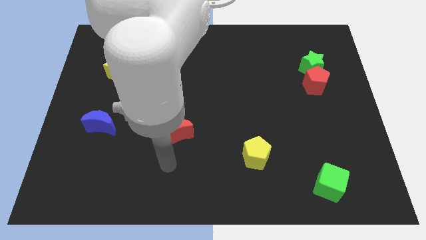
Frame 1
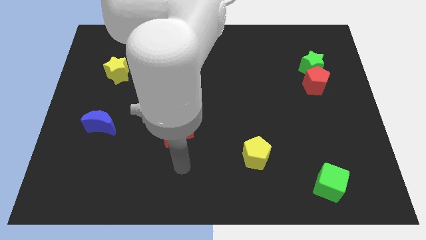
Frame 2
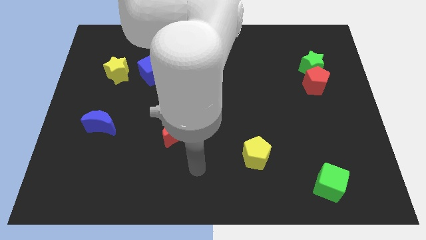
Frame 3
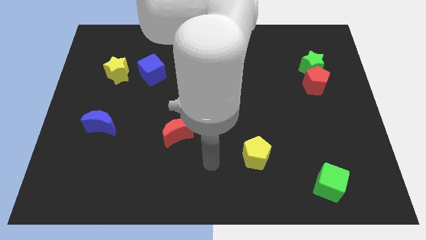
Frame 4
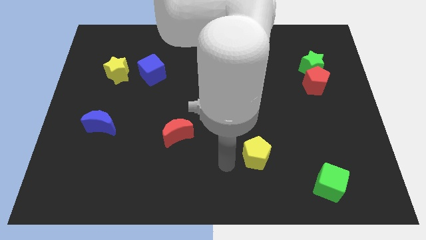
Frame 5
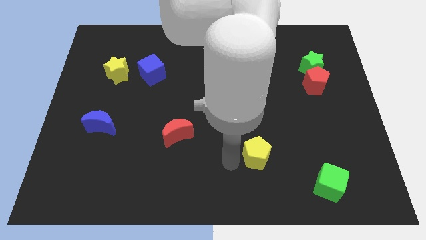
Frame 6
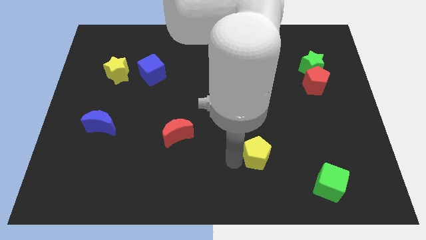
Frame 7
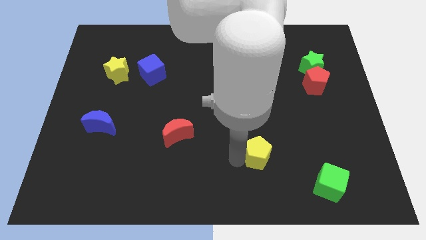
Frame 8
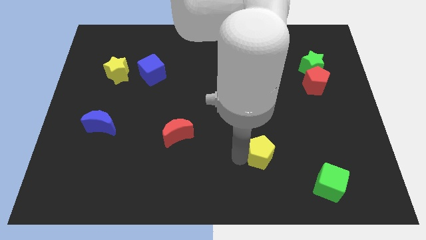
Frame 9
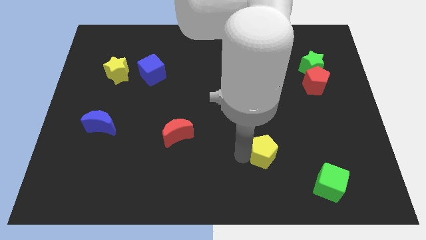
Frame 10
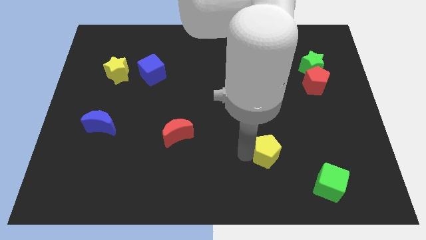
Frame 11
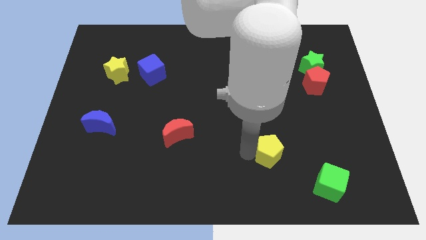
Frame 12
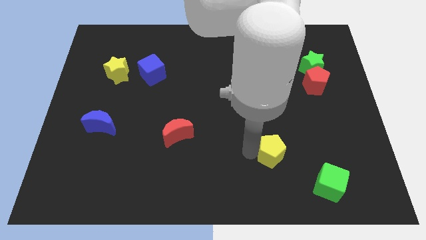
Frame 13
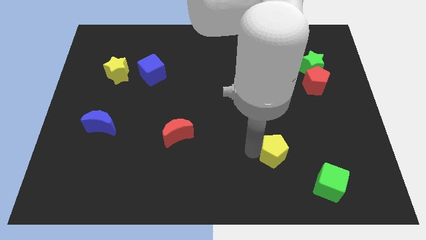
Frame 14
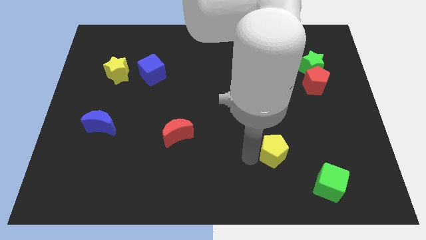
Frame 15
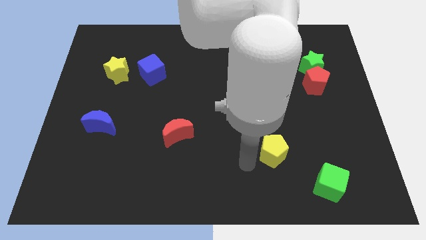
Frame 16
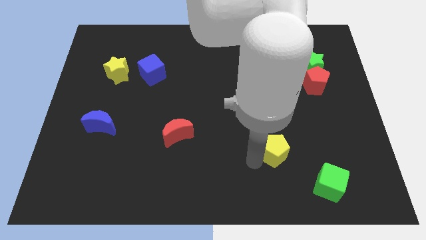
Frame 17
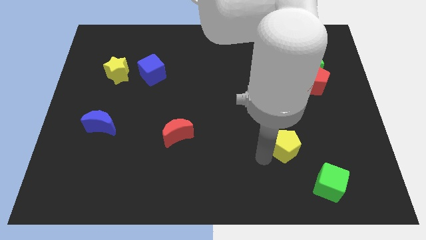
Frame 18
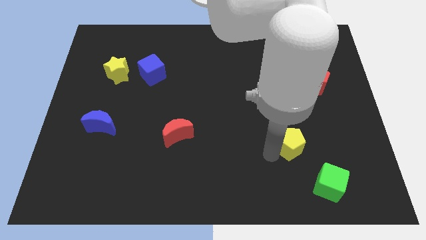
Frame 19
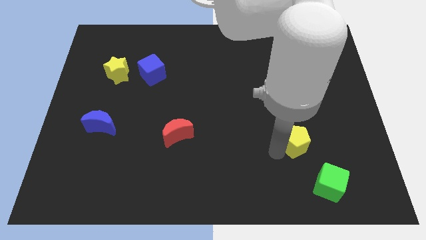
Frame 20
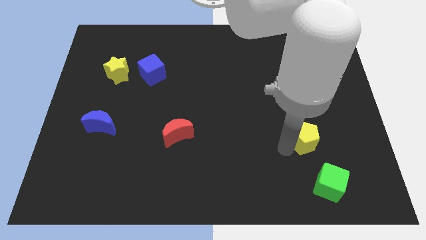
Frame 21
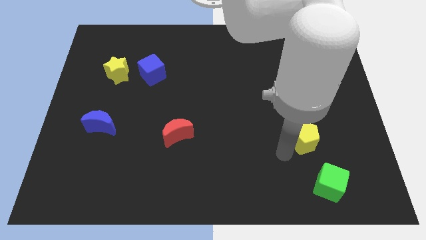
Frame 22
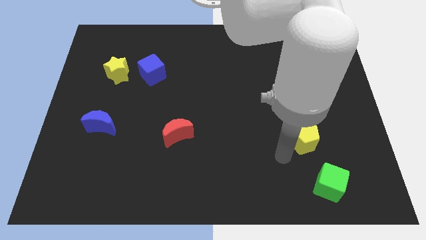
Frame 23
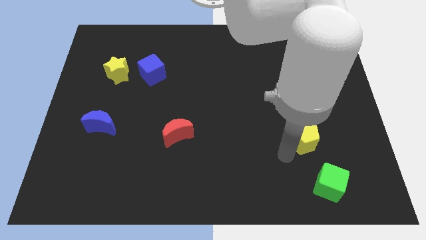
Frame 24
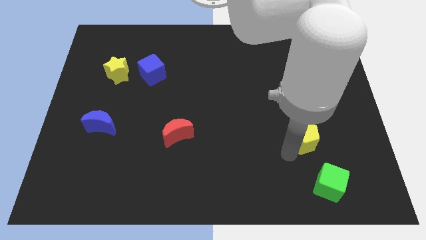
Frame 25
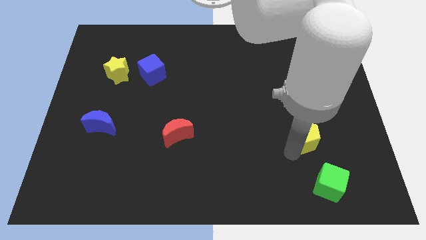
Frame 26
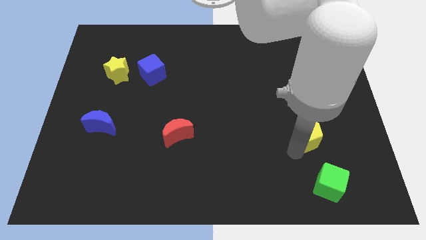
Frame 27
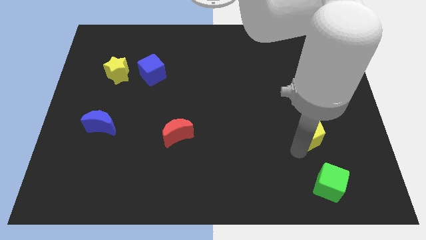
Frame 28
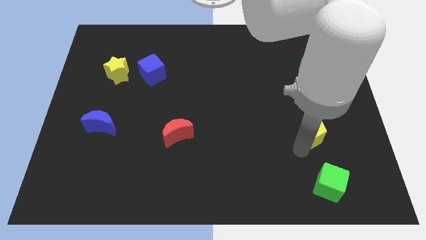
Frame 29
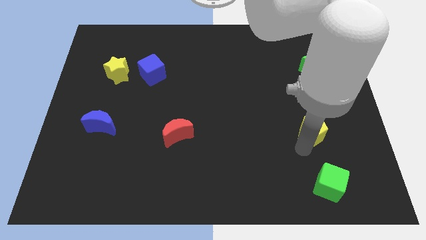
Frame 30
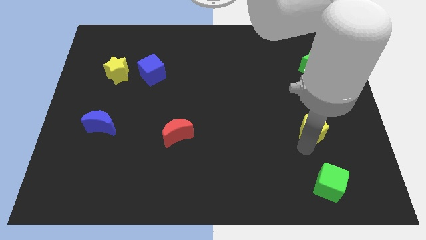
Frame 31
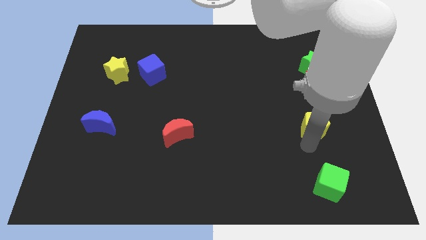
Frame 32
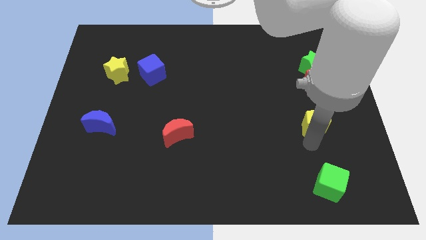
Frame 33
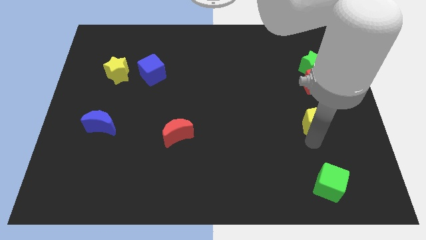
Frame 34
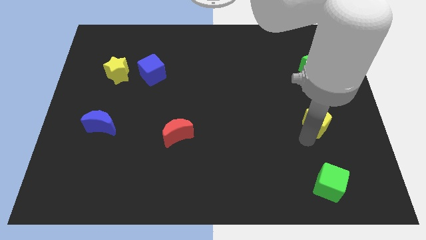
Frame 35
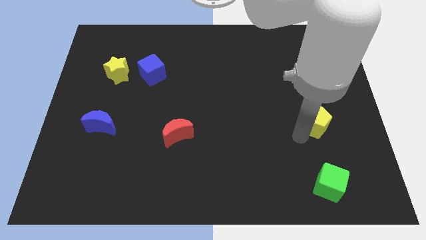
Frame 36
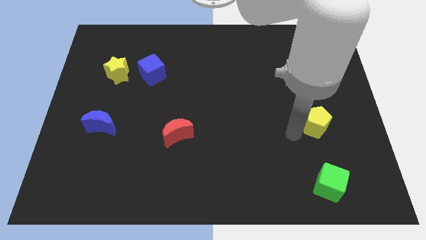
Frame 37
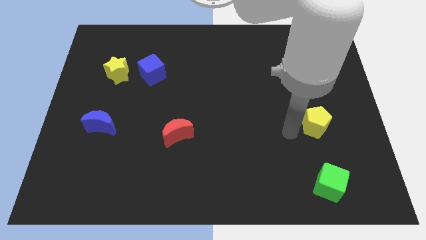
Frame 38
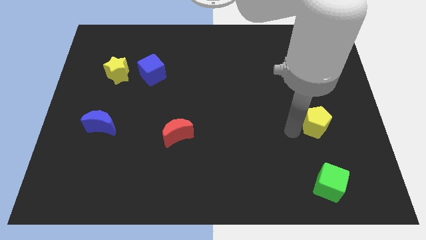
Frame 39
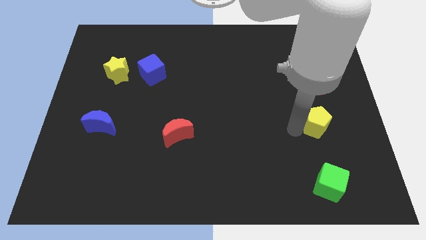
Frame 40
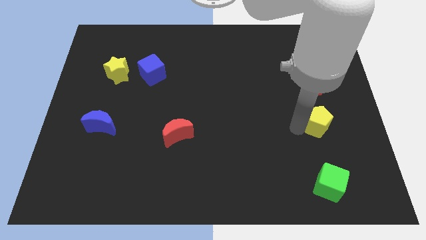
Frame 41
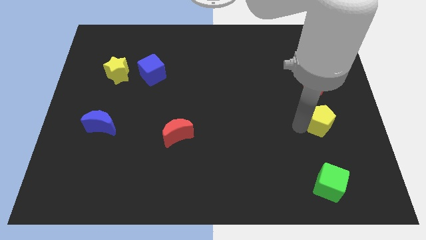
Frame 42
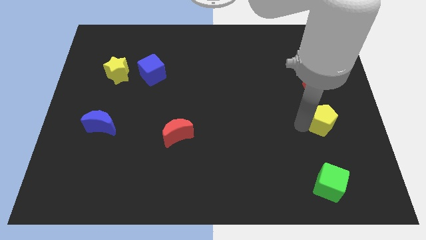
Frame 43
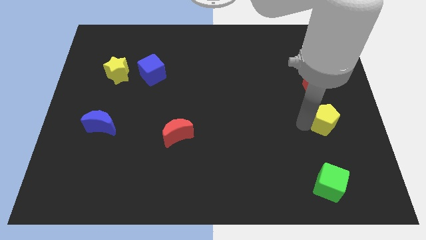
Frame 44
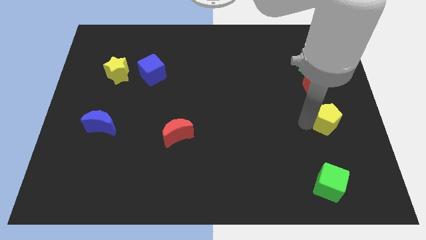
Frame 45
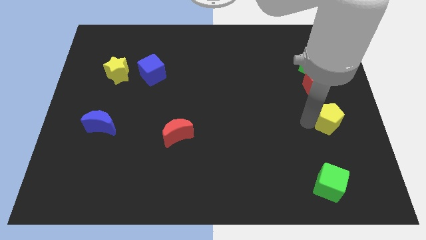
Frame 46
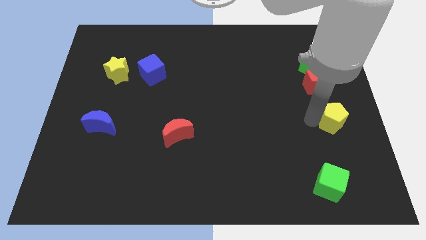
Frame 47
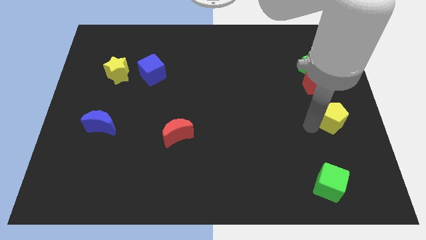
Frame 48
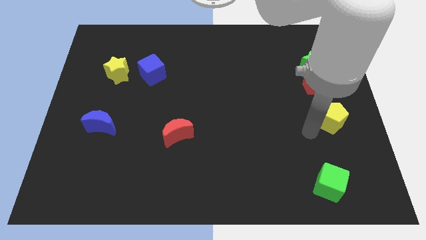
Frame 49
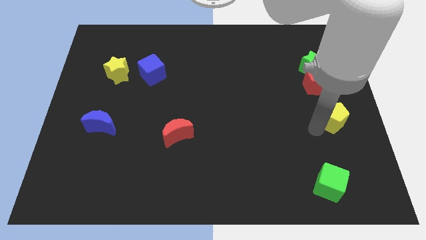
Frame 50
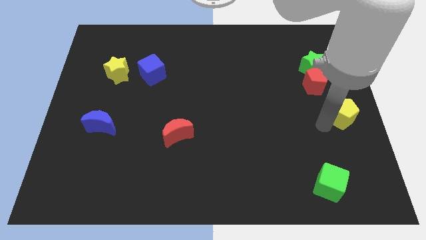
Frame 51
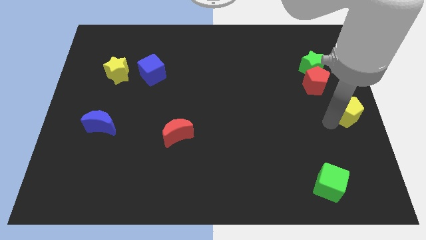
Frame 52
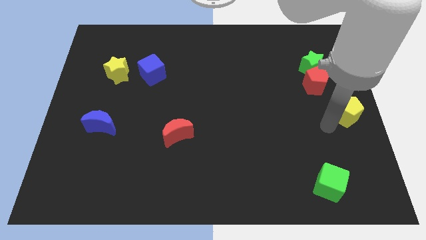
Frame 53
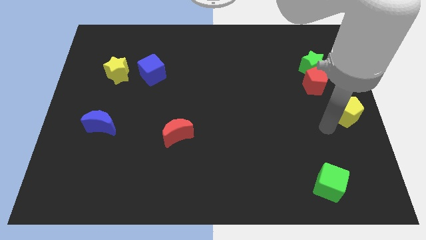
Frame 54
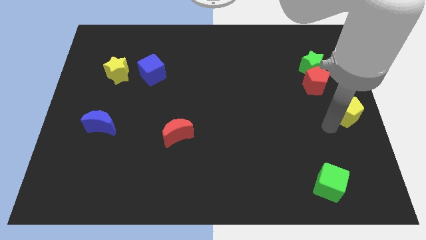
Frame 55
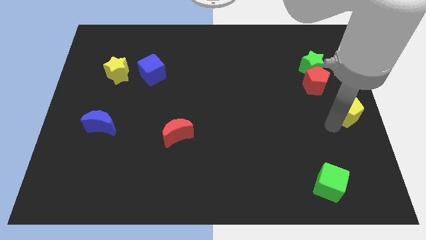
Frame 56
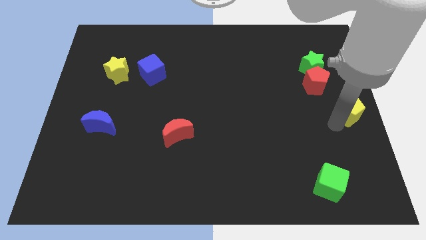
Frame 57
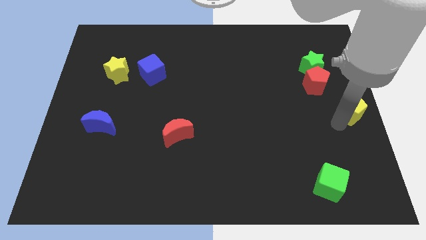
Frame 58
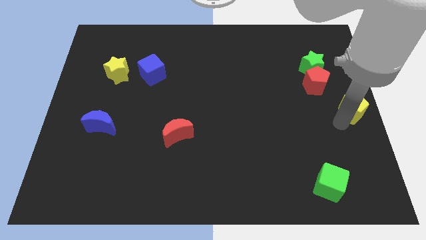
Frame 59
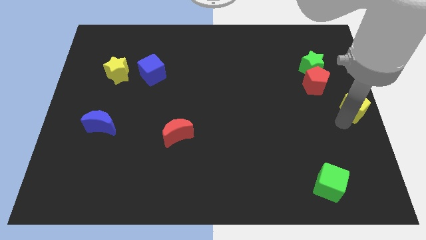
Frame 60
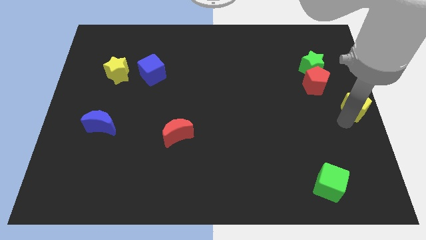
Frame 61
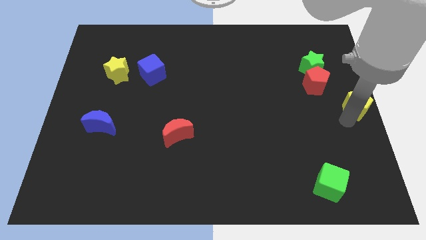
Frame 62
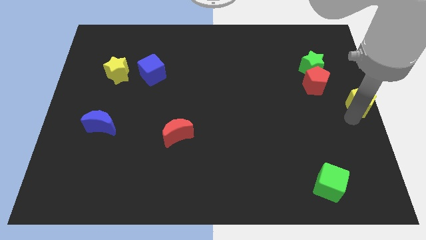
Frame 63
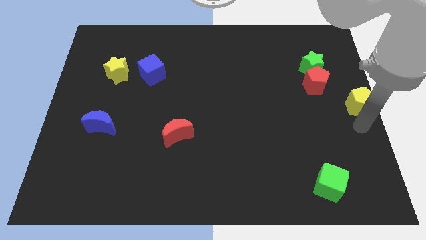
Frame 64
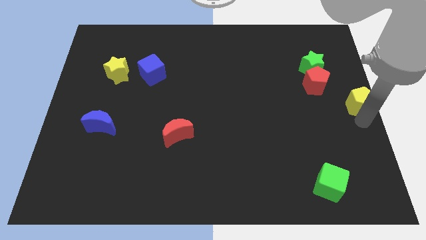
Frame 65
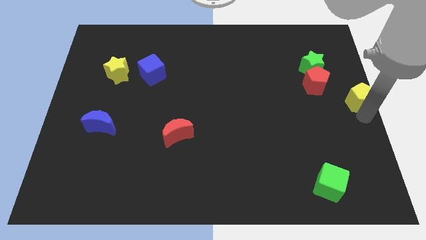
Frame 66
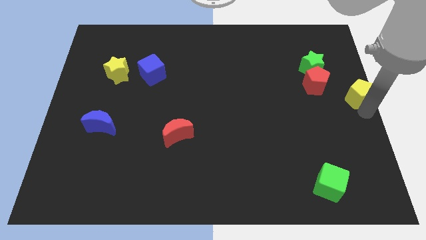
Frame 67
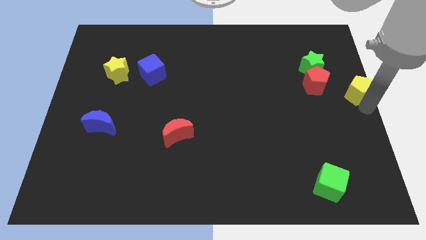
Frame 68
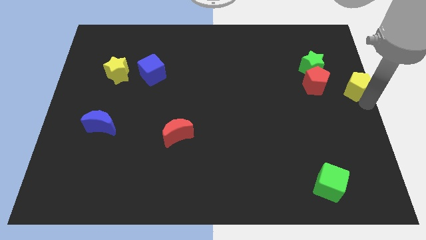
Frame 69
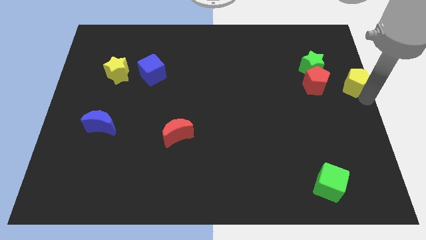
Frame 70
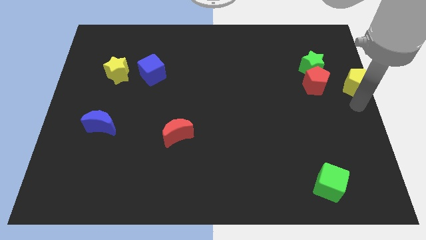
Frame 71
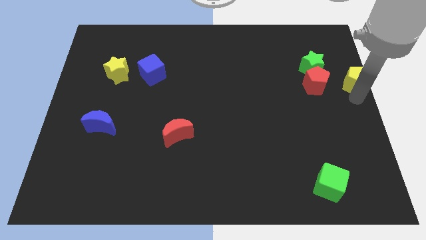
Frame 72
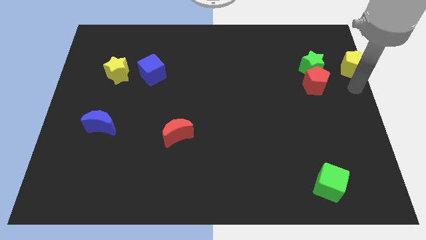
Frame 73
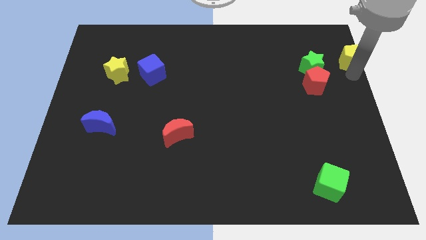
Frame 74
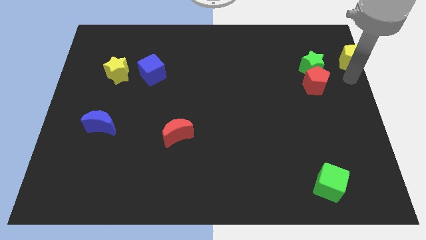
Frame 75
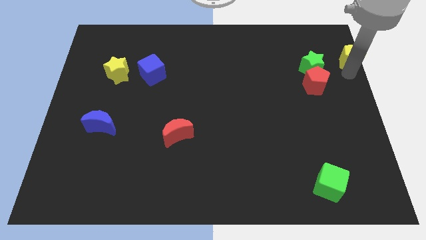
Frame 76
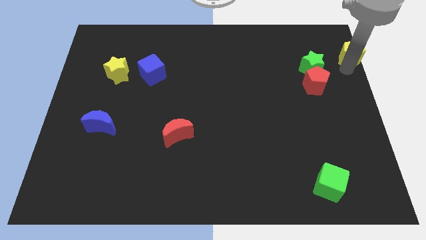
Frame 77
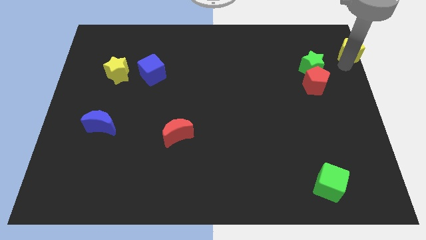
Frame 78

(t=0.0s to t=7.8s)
slide the yellow pentagon to the top right of the board
